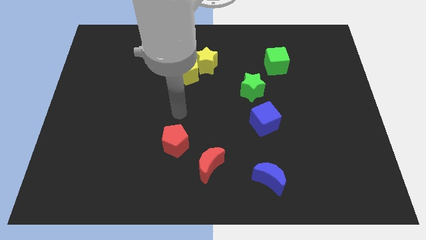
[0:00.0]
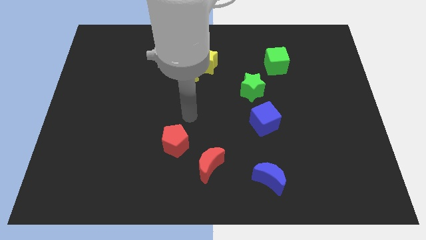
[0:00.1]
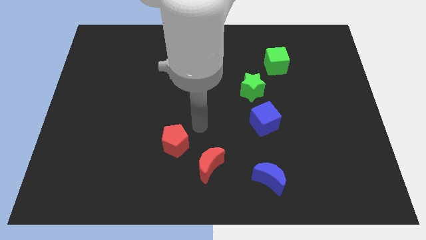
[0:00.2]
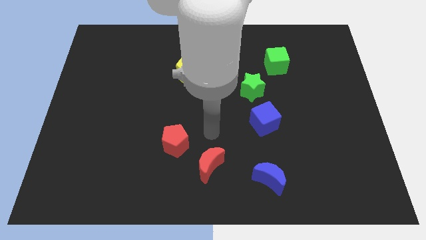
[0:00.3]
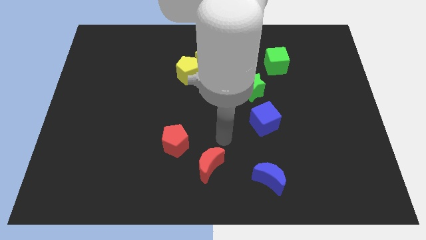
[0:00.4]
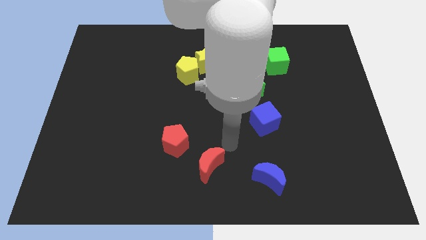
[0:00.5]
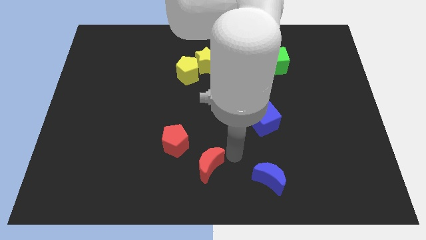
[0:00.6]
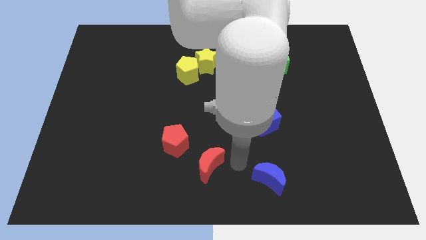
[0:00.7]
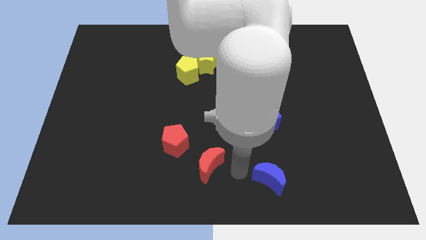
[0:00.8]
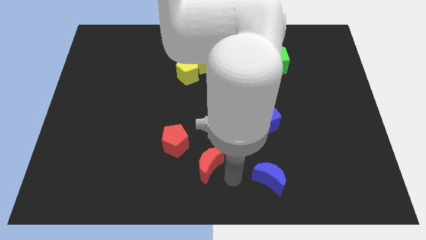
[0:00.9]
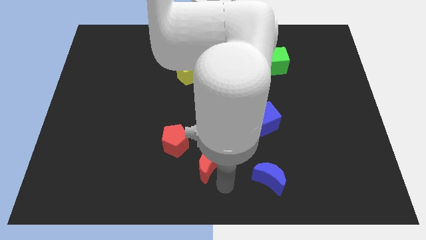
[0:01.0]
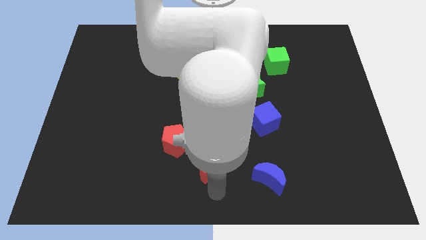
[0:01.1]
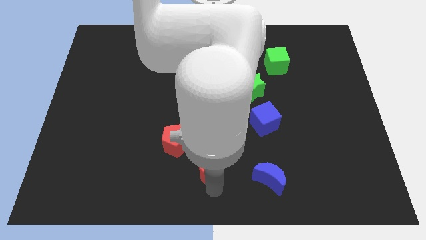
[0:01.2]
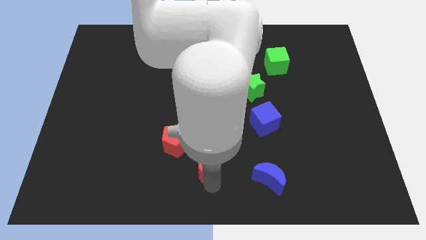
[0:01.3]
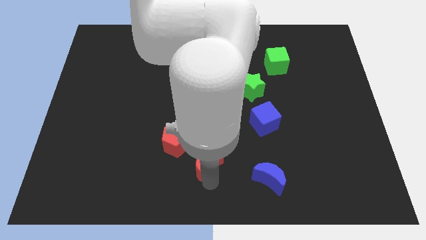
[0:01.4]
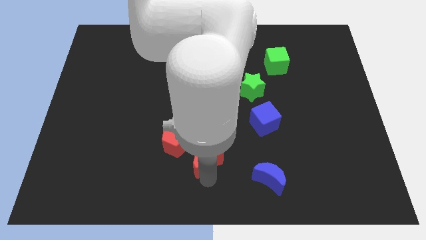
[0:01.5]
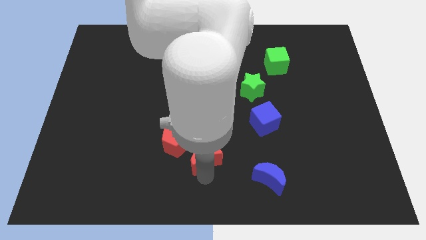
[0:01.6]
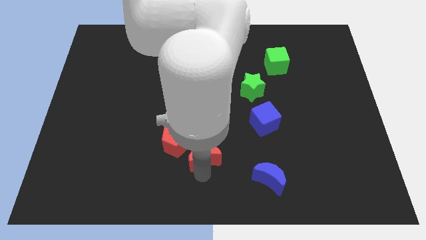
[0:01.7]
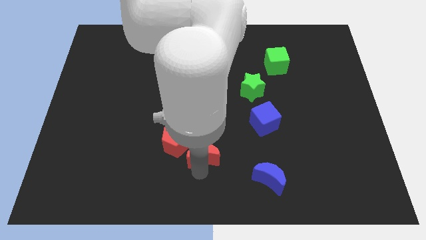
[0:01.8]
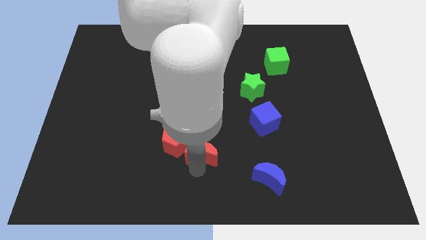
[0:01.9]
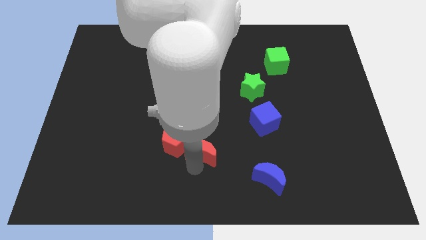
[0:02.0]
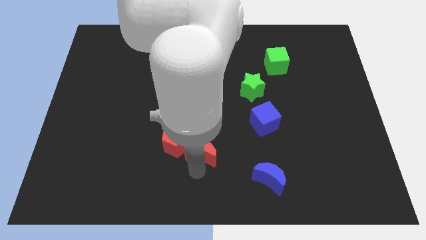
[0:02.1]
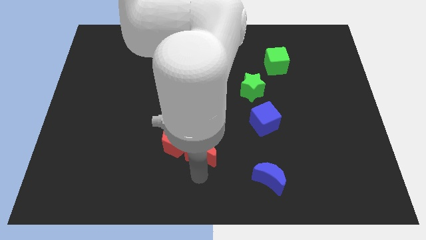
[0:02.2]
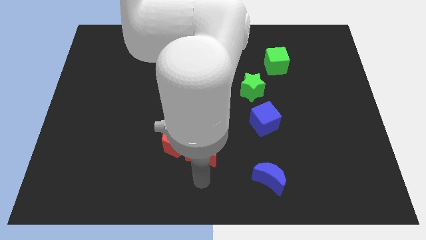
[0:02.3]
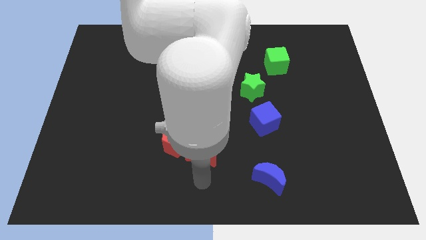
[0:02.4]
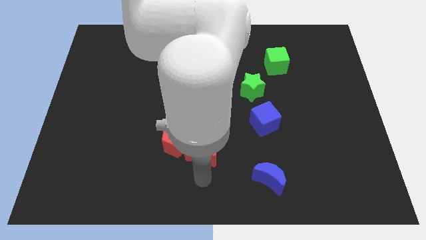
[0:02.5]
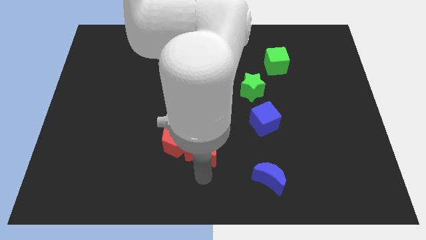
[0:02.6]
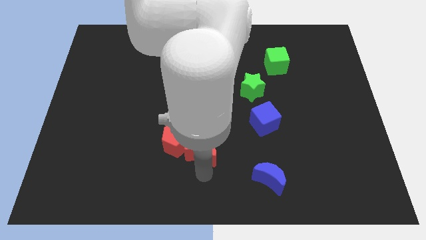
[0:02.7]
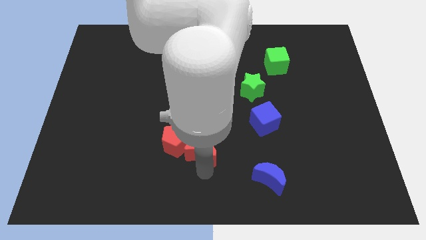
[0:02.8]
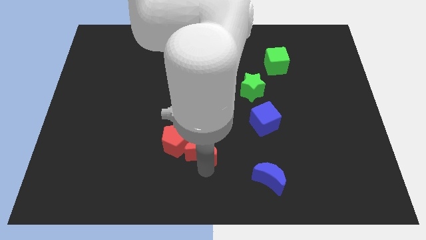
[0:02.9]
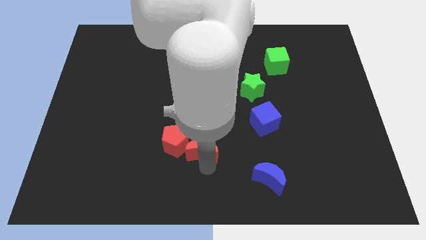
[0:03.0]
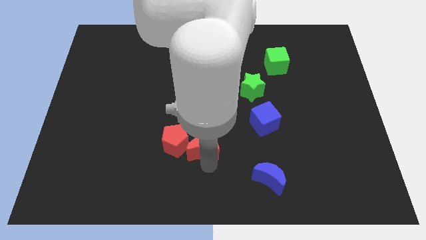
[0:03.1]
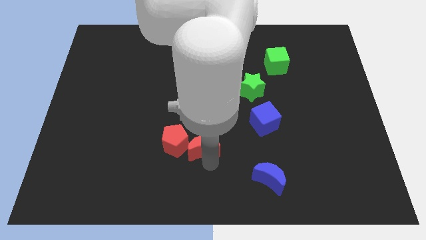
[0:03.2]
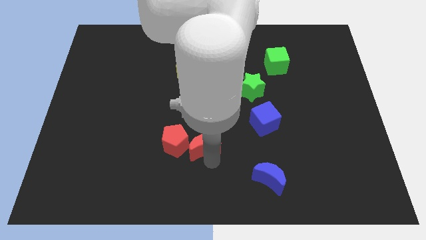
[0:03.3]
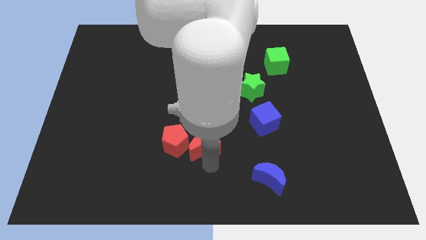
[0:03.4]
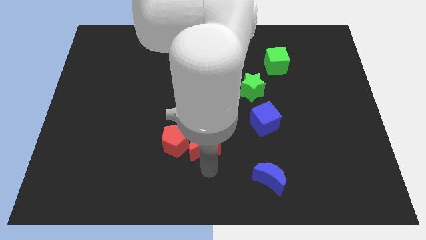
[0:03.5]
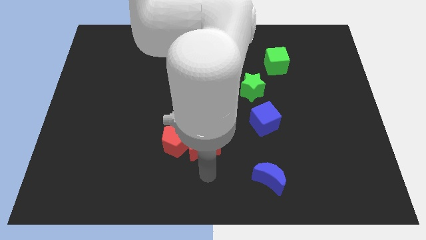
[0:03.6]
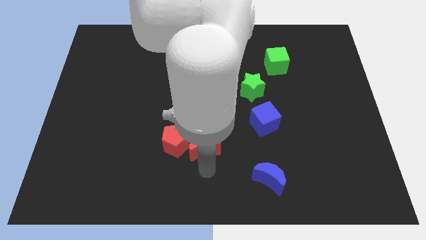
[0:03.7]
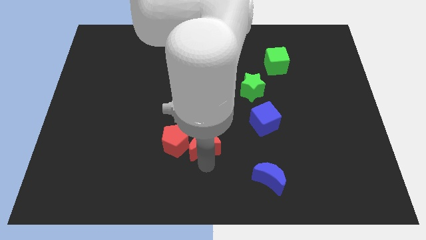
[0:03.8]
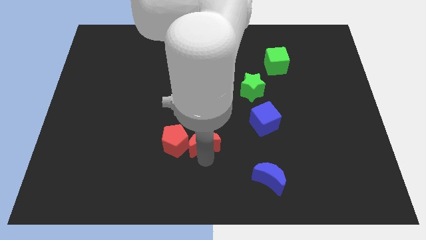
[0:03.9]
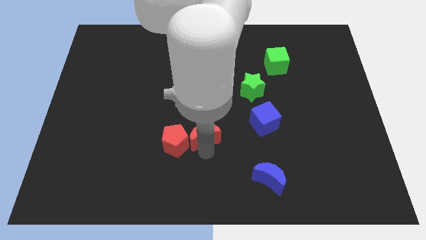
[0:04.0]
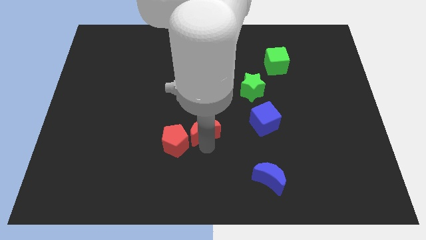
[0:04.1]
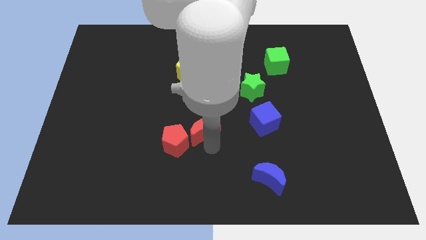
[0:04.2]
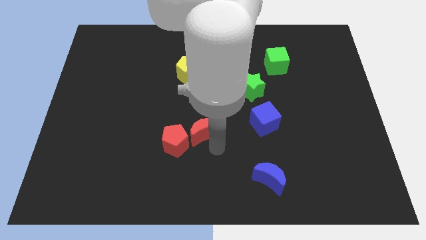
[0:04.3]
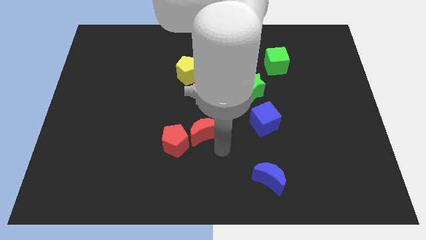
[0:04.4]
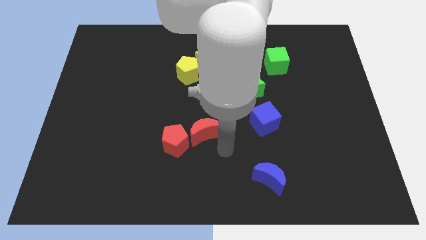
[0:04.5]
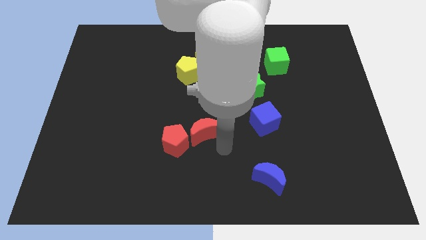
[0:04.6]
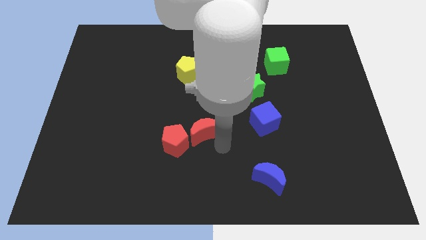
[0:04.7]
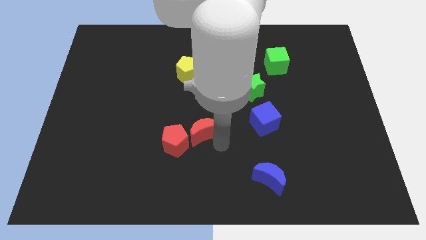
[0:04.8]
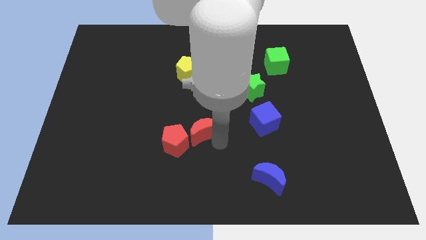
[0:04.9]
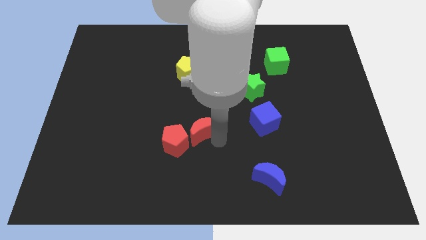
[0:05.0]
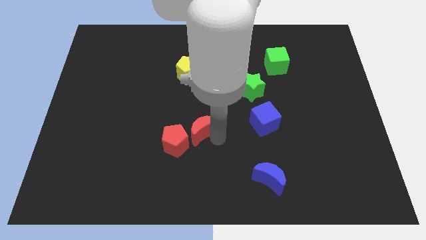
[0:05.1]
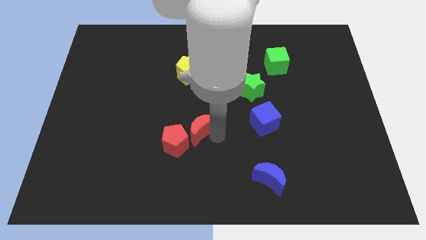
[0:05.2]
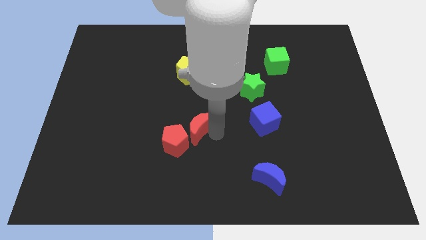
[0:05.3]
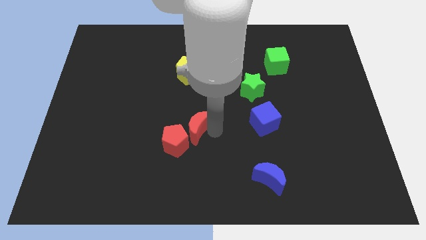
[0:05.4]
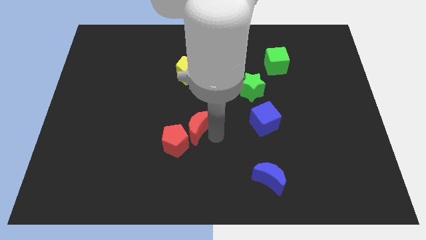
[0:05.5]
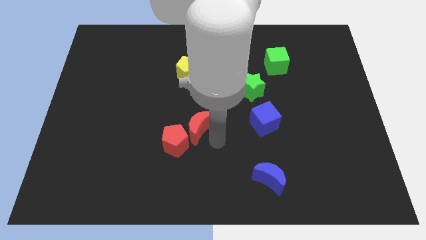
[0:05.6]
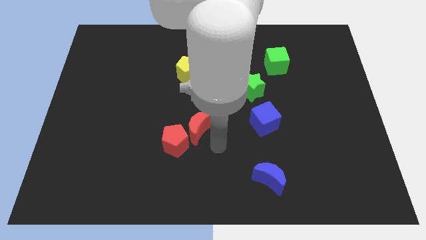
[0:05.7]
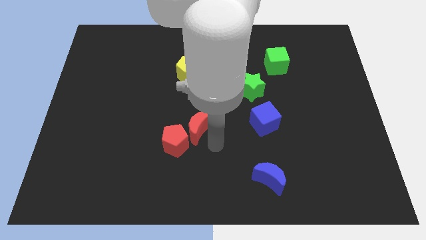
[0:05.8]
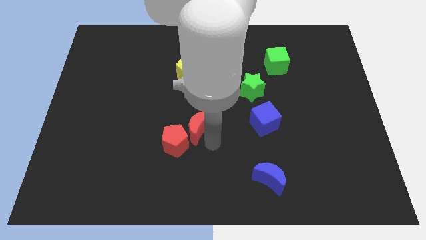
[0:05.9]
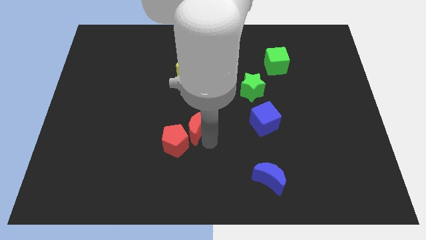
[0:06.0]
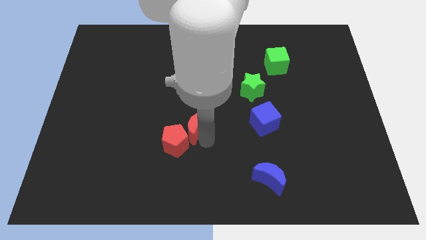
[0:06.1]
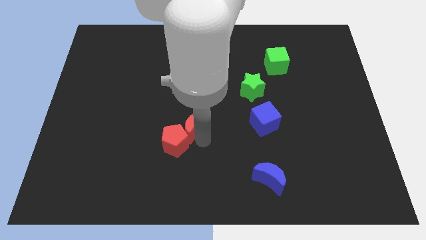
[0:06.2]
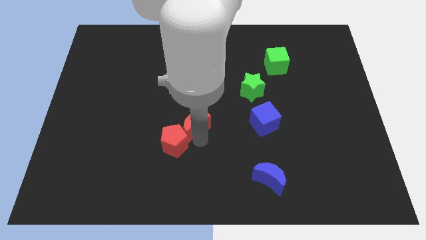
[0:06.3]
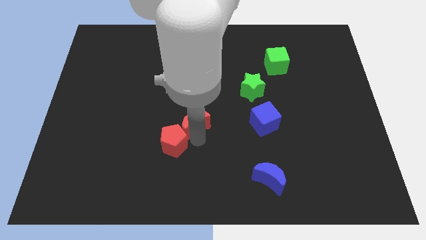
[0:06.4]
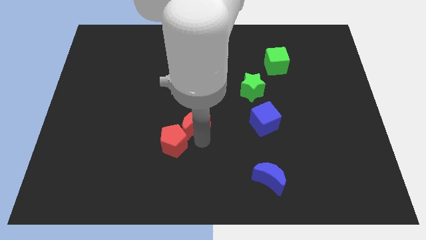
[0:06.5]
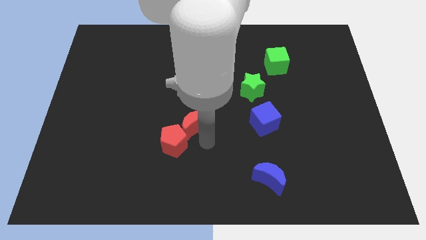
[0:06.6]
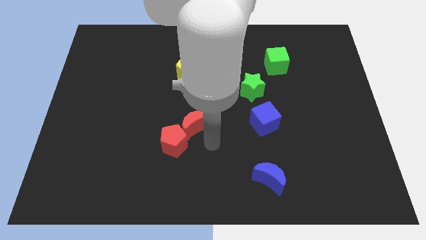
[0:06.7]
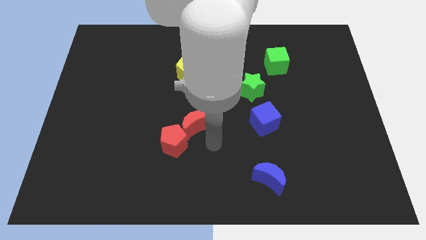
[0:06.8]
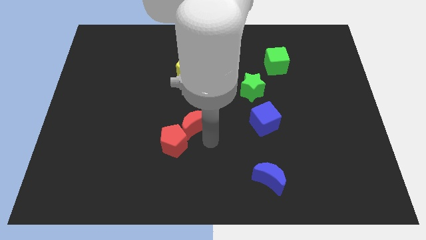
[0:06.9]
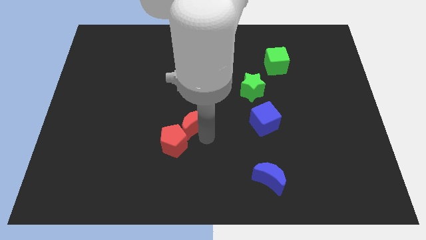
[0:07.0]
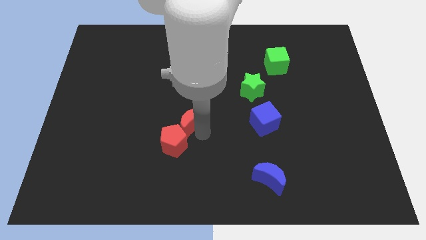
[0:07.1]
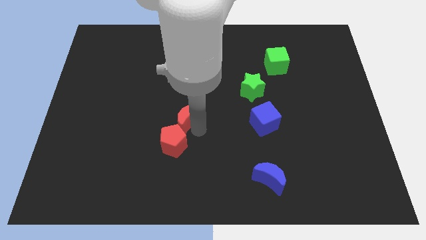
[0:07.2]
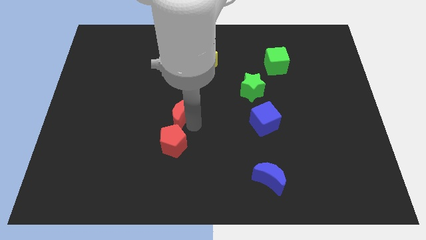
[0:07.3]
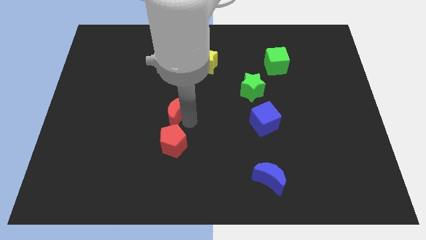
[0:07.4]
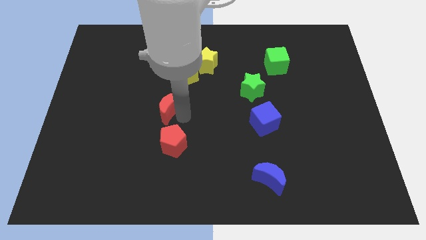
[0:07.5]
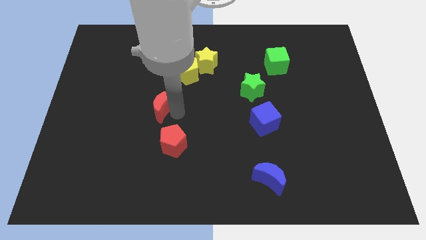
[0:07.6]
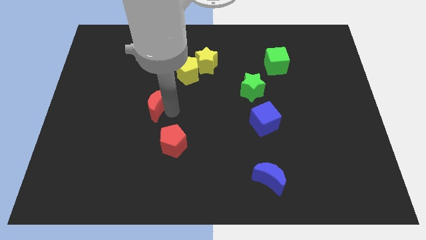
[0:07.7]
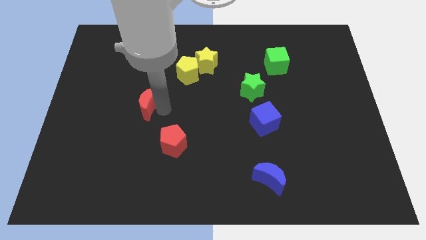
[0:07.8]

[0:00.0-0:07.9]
slide the red moon upwards and then to the left
